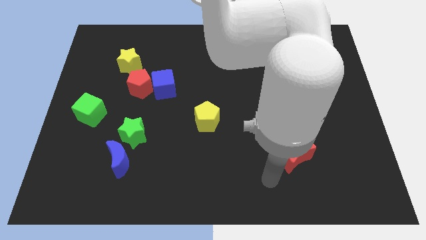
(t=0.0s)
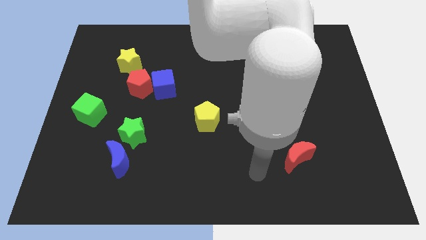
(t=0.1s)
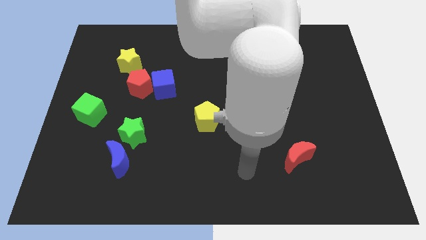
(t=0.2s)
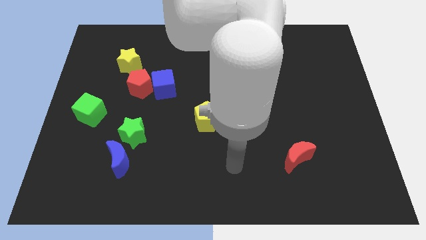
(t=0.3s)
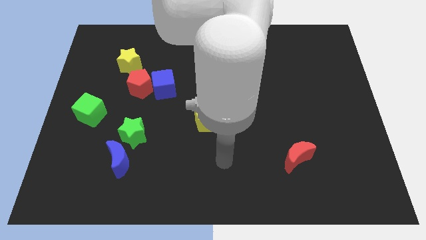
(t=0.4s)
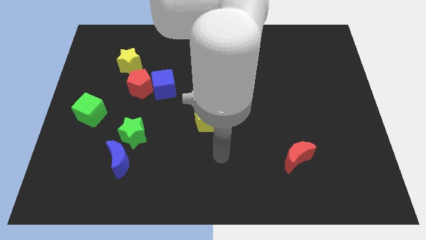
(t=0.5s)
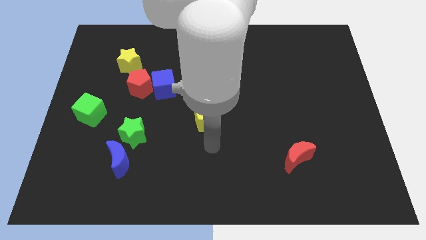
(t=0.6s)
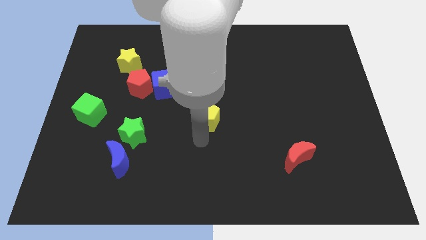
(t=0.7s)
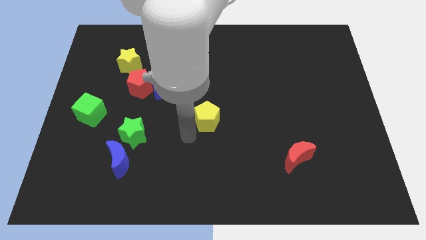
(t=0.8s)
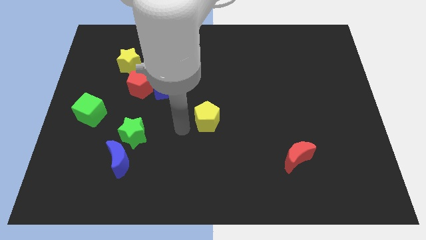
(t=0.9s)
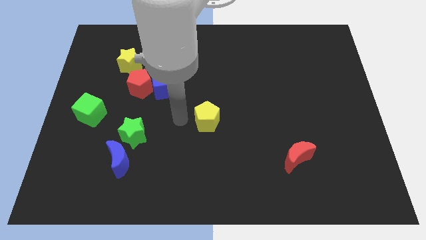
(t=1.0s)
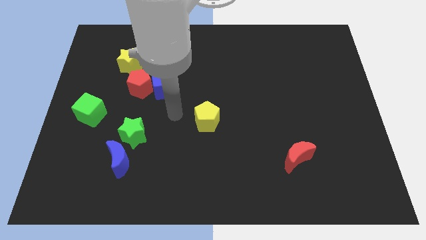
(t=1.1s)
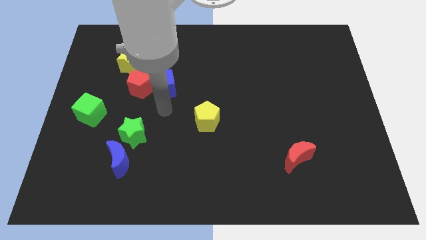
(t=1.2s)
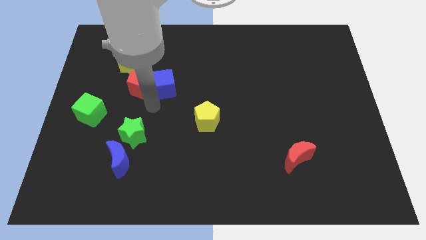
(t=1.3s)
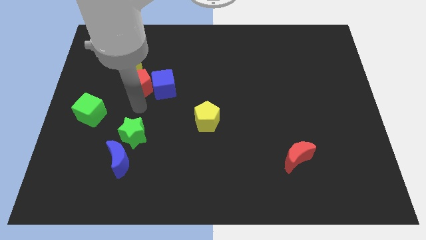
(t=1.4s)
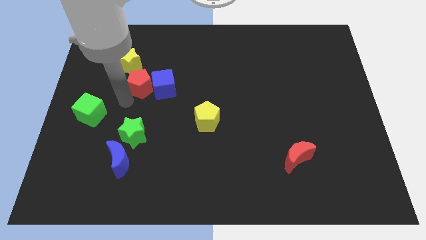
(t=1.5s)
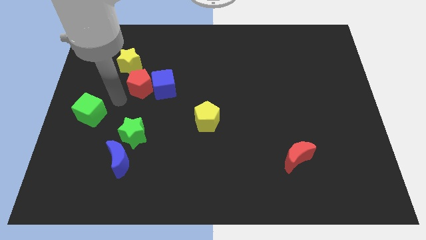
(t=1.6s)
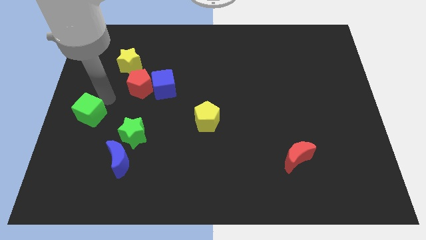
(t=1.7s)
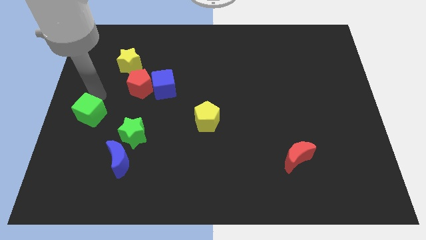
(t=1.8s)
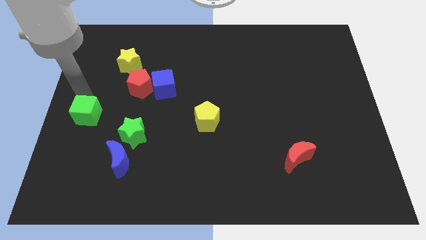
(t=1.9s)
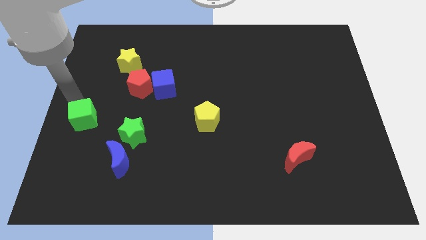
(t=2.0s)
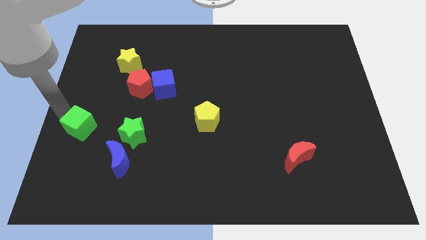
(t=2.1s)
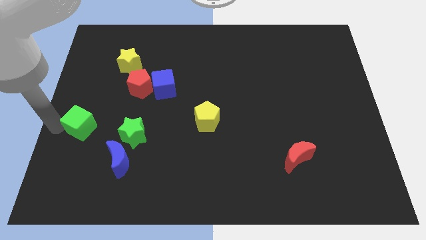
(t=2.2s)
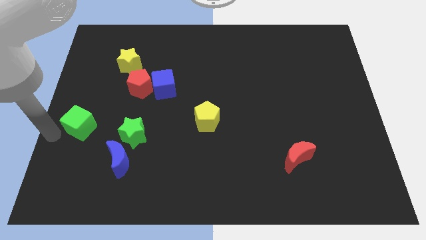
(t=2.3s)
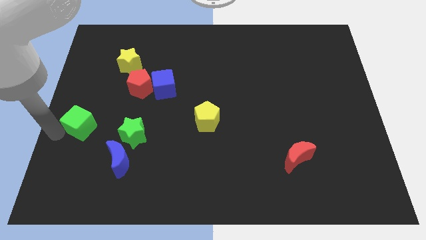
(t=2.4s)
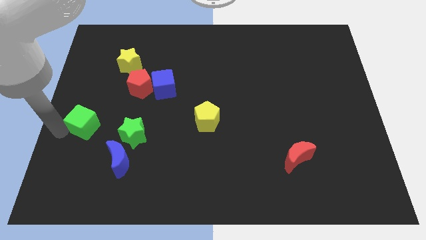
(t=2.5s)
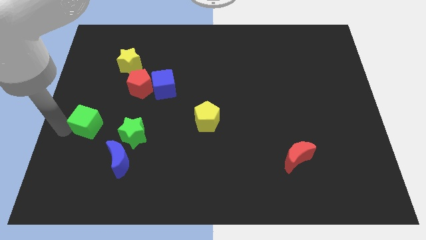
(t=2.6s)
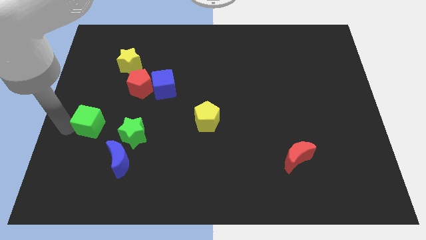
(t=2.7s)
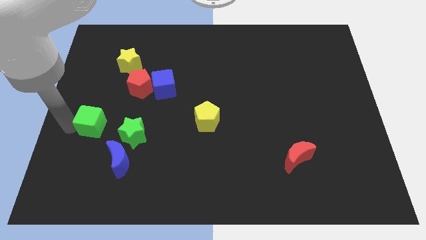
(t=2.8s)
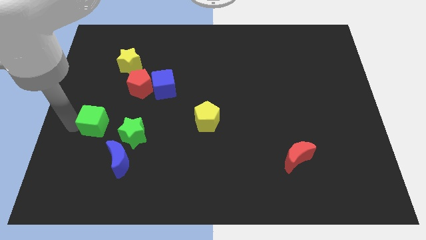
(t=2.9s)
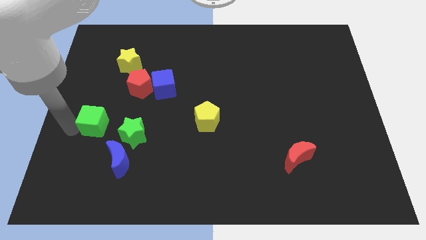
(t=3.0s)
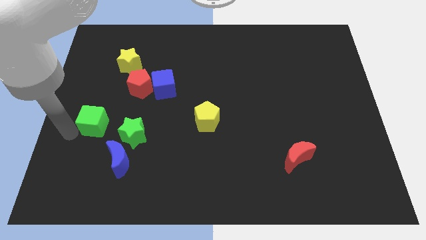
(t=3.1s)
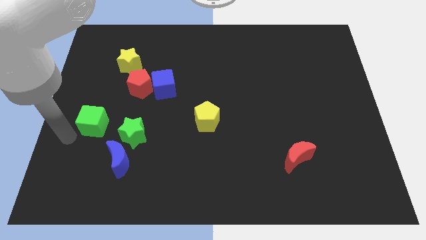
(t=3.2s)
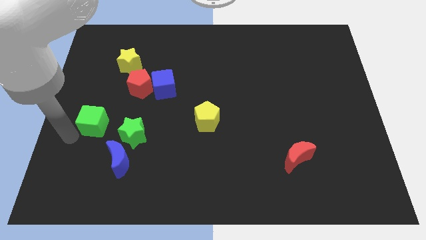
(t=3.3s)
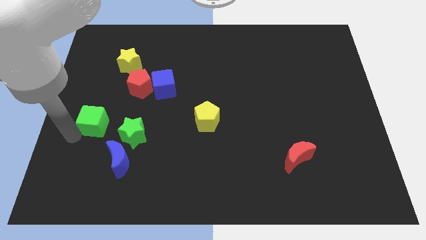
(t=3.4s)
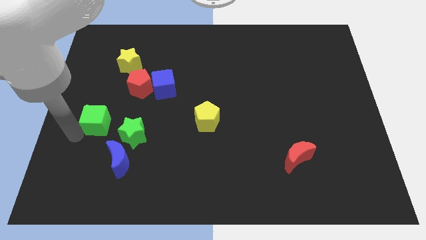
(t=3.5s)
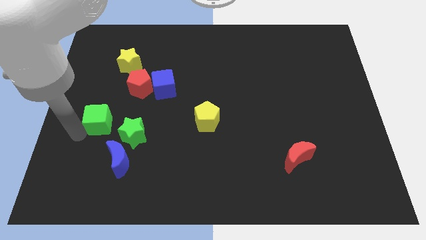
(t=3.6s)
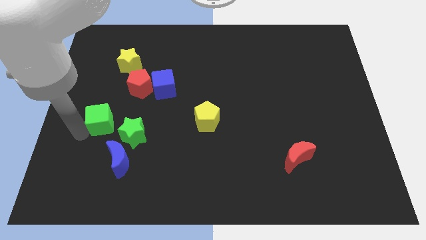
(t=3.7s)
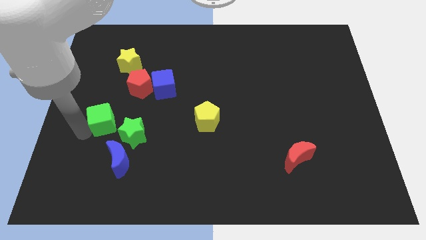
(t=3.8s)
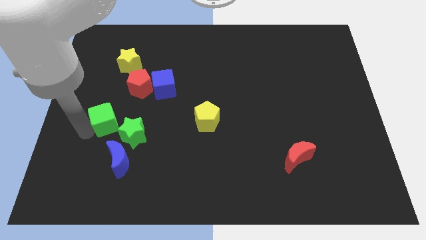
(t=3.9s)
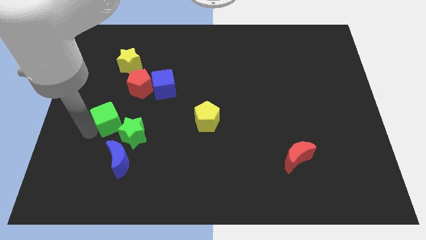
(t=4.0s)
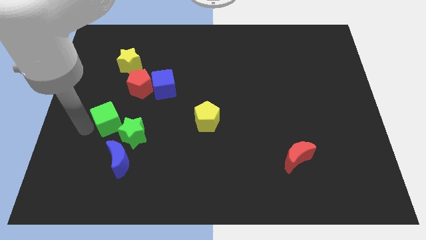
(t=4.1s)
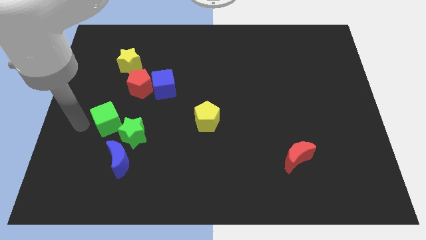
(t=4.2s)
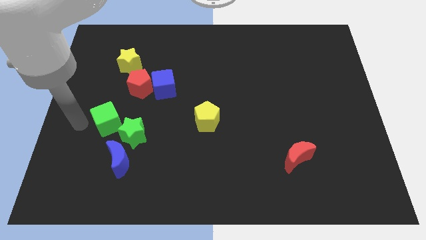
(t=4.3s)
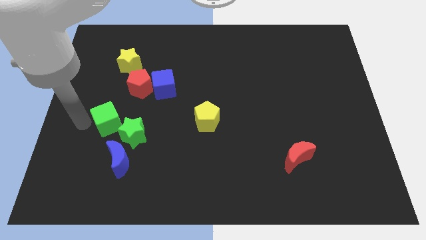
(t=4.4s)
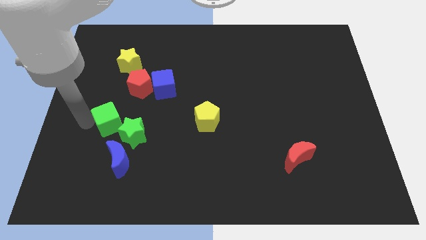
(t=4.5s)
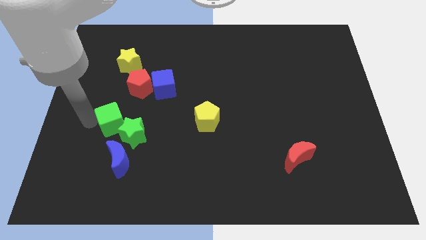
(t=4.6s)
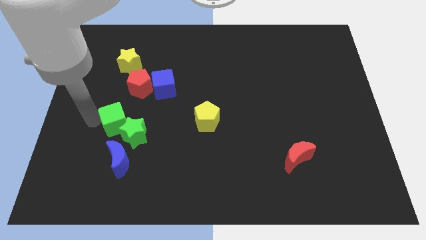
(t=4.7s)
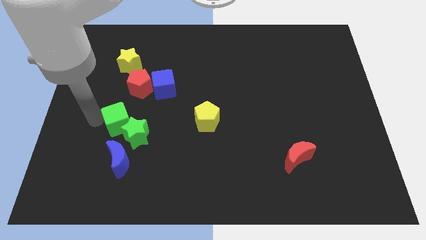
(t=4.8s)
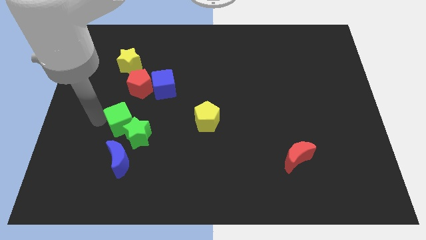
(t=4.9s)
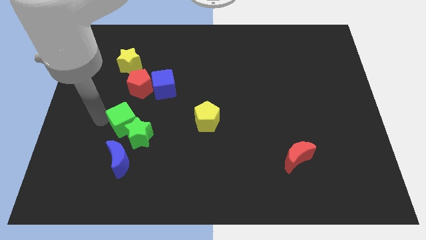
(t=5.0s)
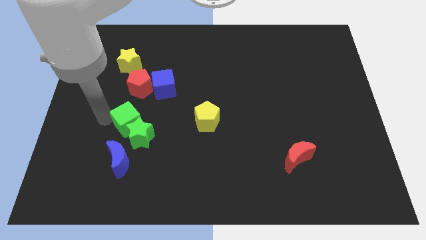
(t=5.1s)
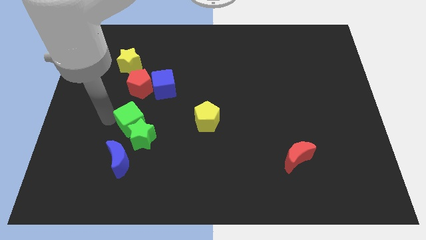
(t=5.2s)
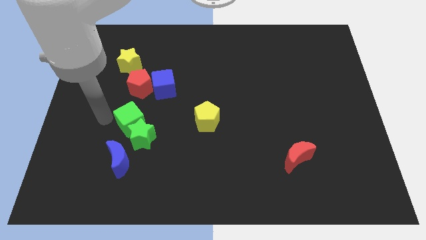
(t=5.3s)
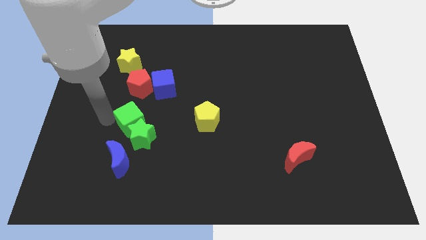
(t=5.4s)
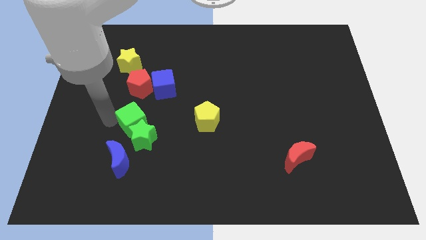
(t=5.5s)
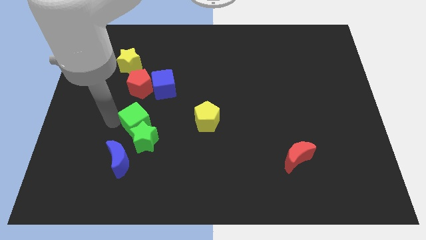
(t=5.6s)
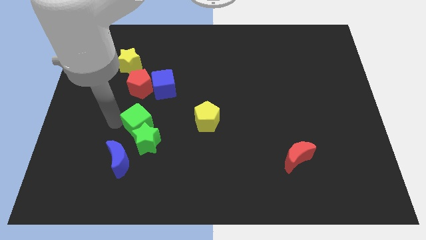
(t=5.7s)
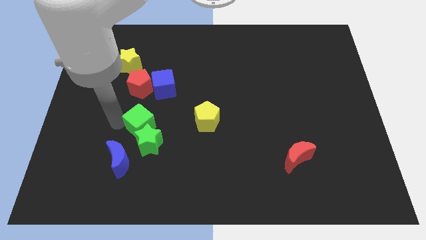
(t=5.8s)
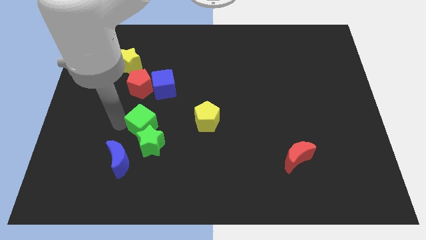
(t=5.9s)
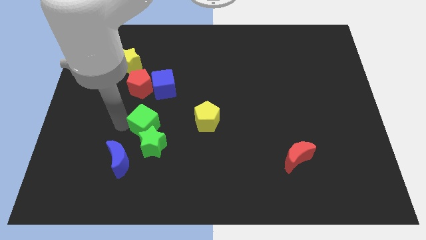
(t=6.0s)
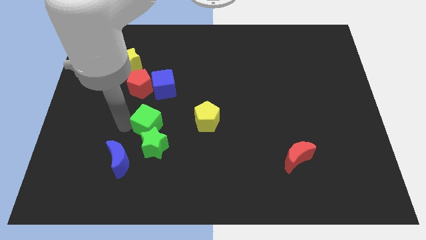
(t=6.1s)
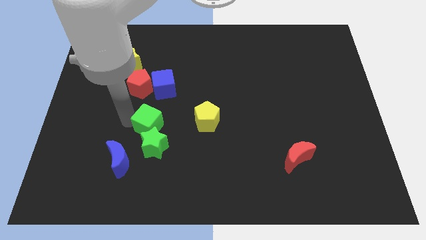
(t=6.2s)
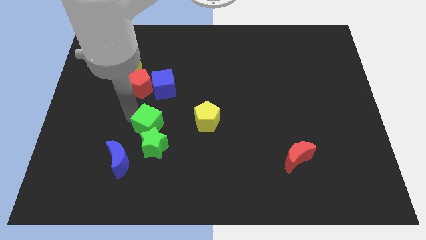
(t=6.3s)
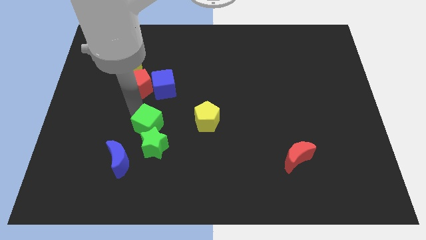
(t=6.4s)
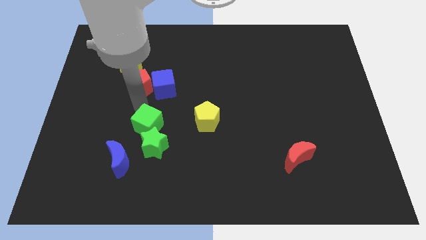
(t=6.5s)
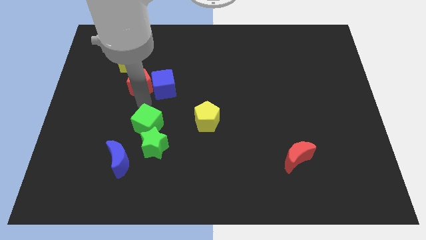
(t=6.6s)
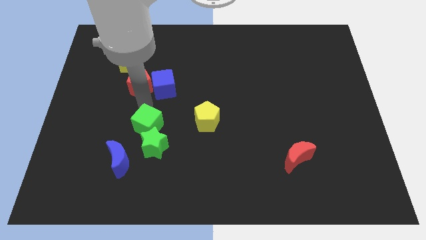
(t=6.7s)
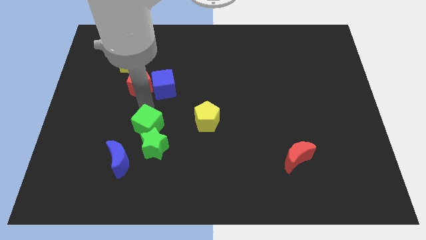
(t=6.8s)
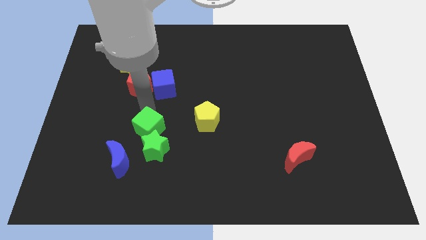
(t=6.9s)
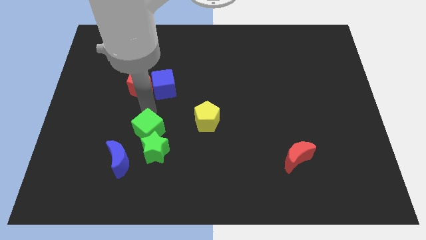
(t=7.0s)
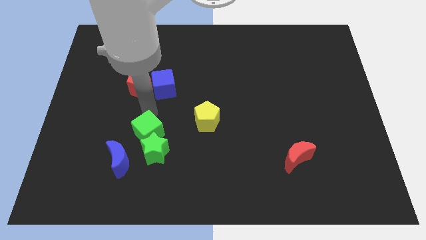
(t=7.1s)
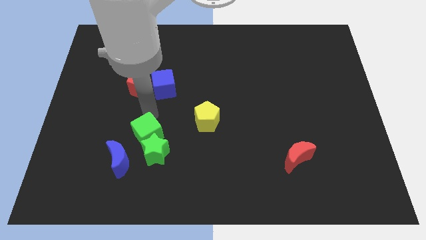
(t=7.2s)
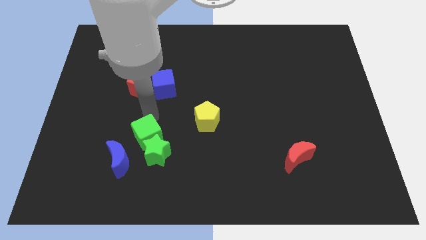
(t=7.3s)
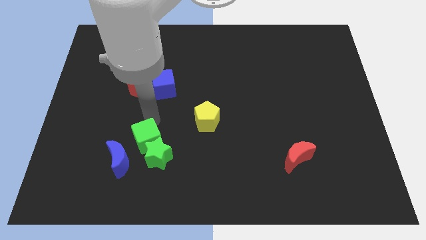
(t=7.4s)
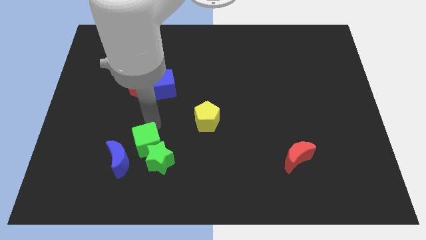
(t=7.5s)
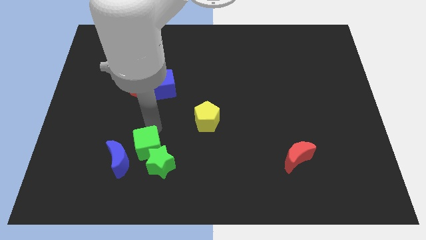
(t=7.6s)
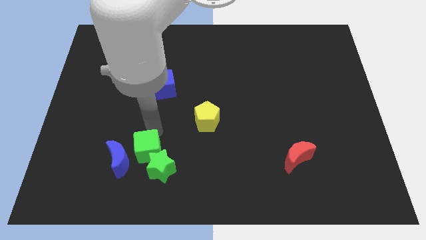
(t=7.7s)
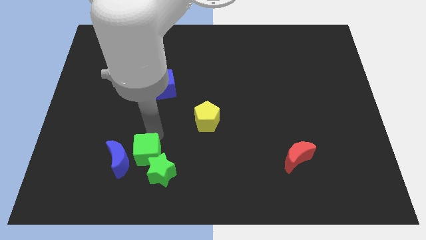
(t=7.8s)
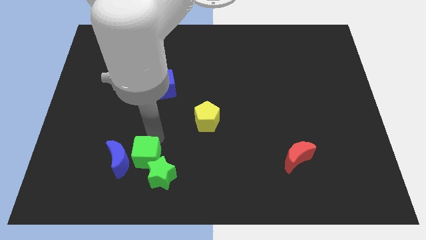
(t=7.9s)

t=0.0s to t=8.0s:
put the green cube to the bottom right of the blue moon
